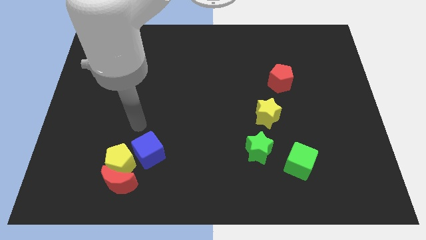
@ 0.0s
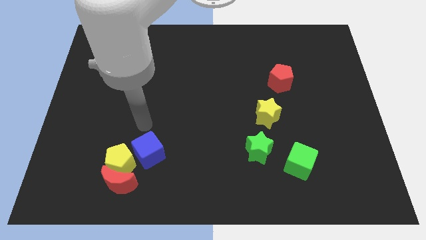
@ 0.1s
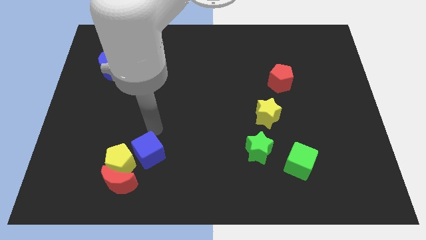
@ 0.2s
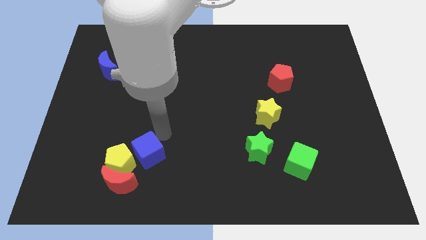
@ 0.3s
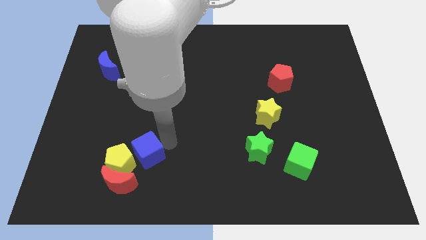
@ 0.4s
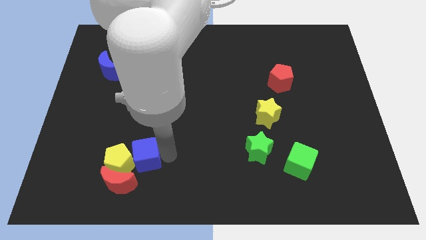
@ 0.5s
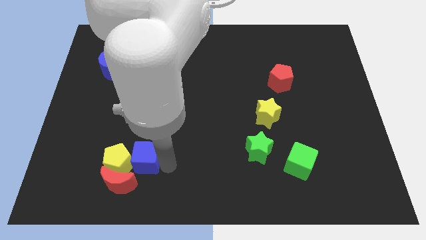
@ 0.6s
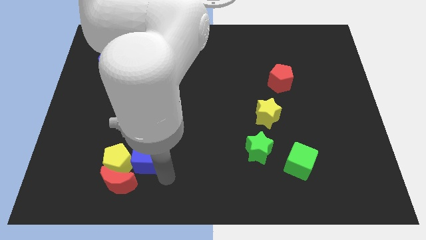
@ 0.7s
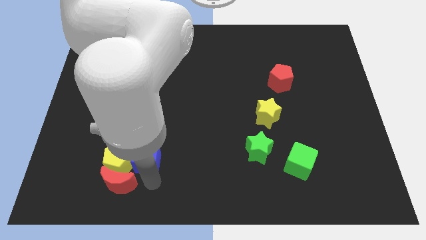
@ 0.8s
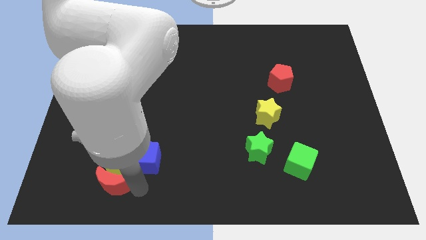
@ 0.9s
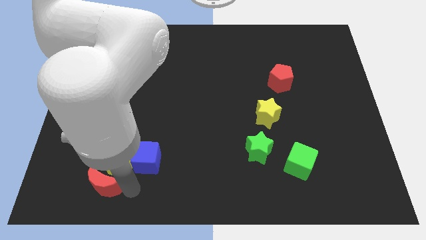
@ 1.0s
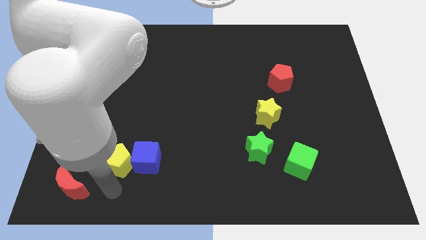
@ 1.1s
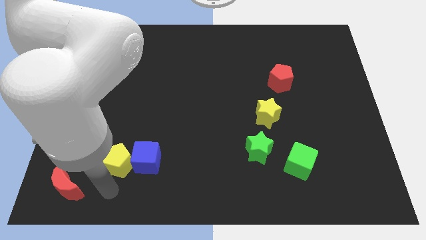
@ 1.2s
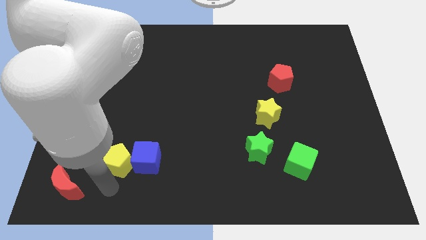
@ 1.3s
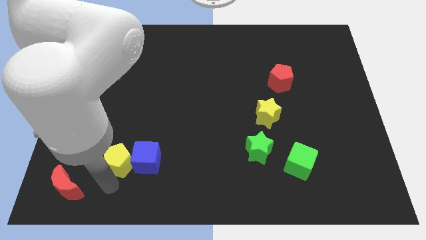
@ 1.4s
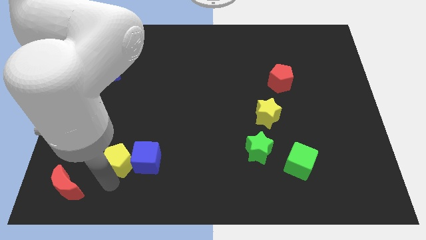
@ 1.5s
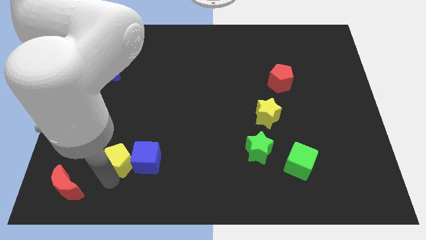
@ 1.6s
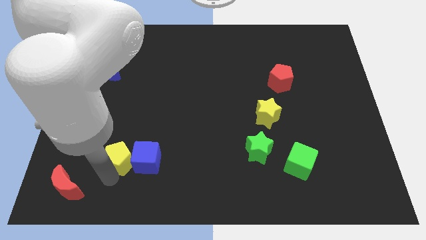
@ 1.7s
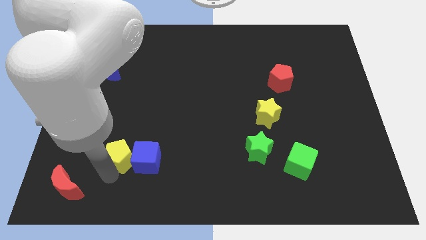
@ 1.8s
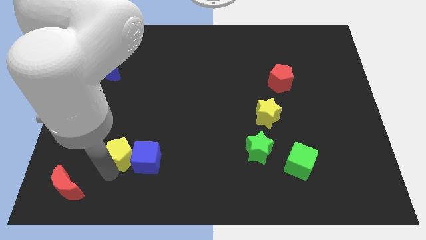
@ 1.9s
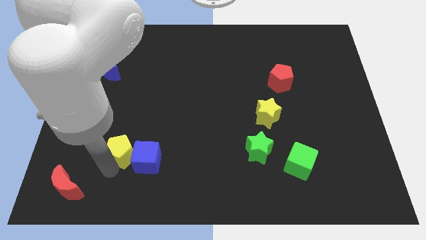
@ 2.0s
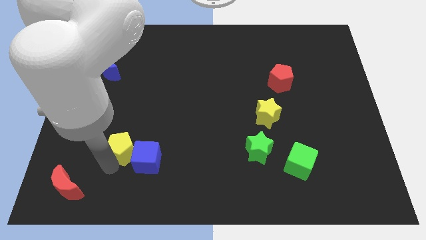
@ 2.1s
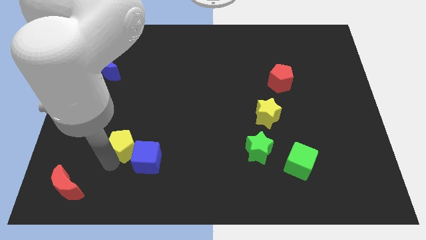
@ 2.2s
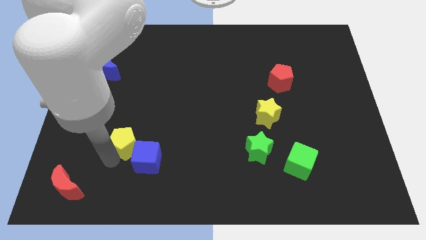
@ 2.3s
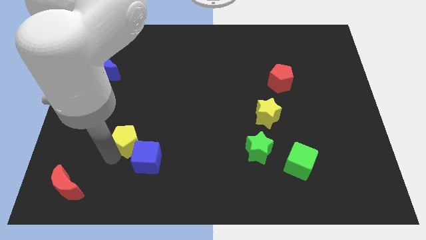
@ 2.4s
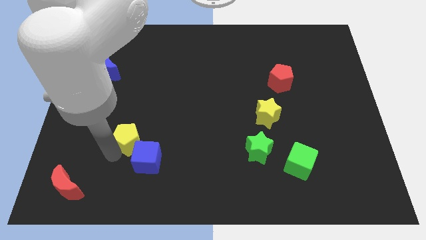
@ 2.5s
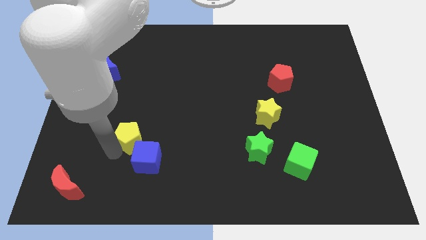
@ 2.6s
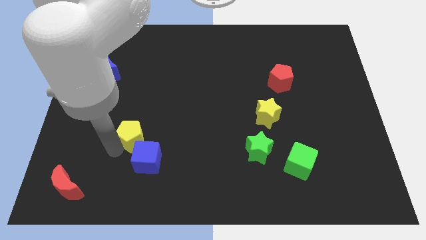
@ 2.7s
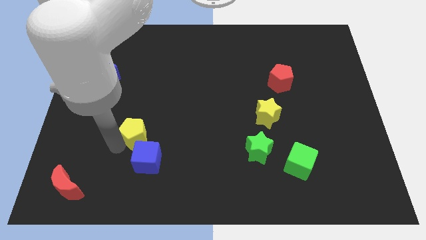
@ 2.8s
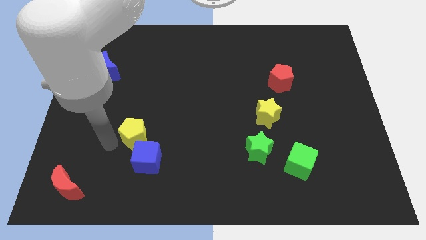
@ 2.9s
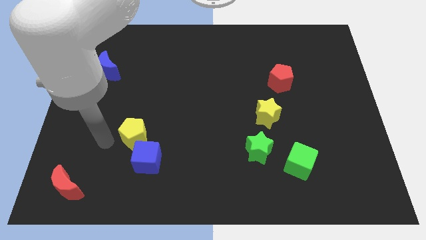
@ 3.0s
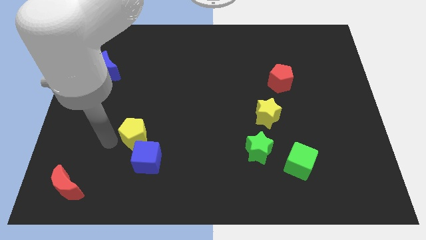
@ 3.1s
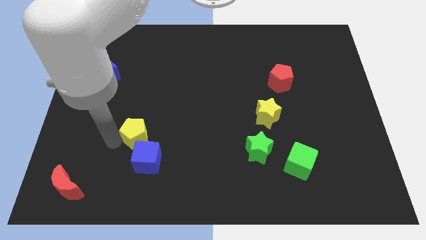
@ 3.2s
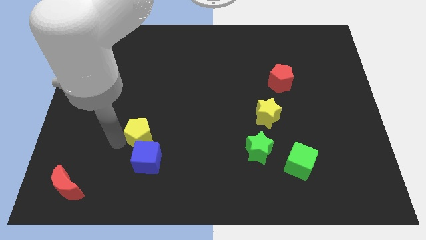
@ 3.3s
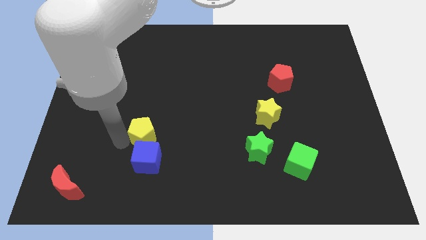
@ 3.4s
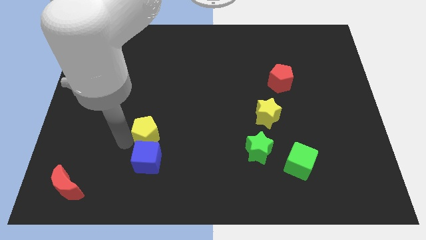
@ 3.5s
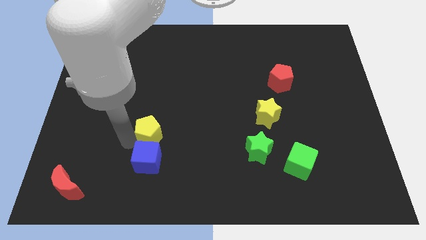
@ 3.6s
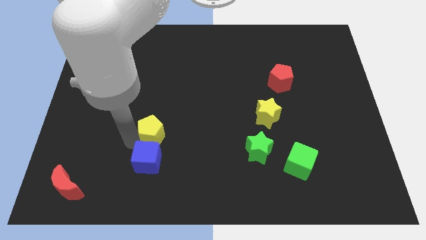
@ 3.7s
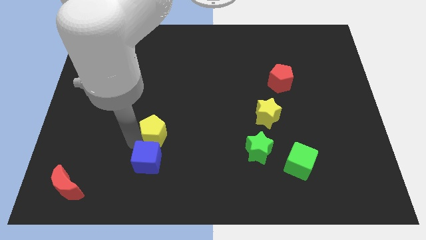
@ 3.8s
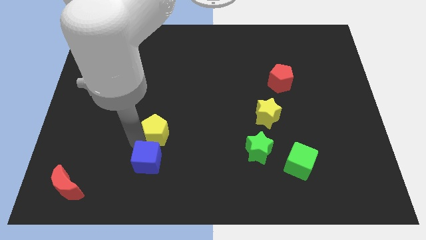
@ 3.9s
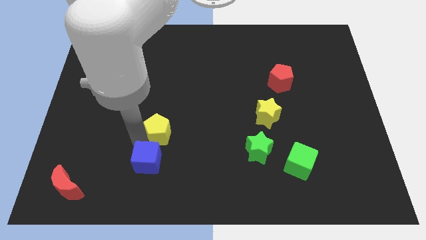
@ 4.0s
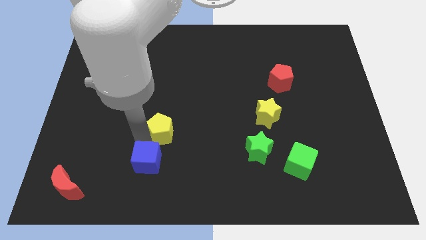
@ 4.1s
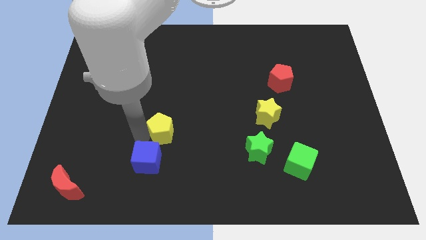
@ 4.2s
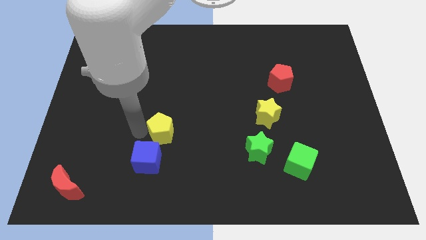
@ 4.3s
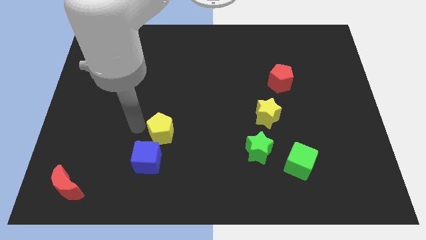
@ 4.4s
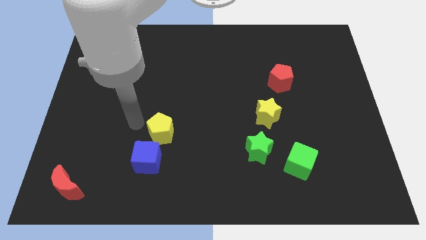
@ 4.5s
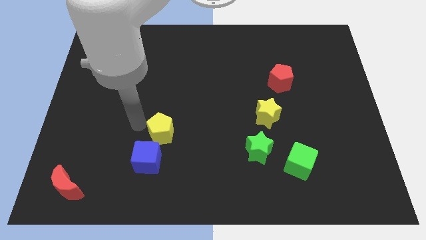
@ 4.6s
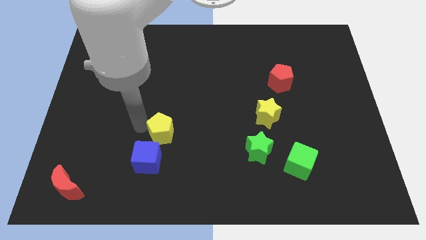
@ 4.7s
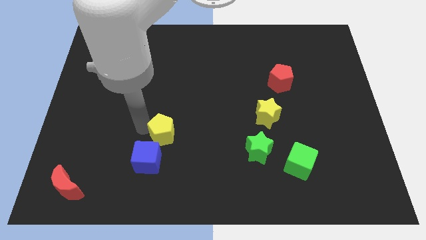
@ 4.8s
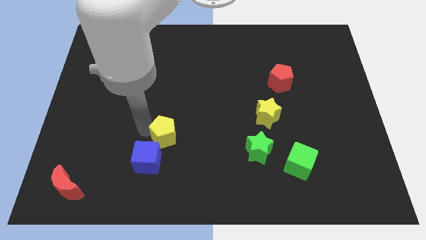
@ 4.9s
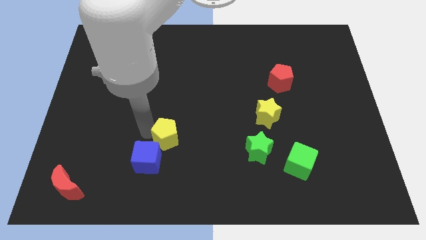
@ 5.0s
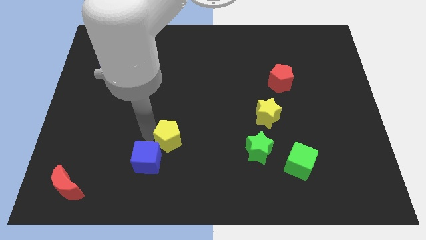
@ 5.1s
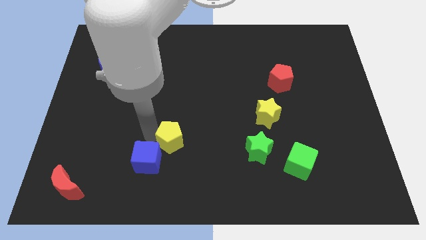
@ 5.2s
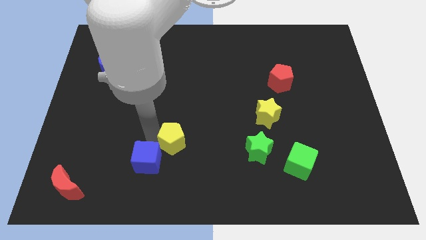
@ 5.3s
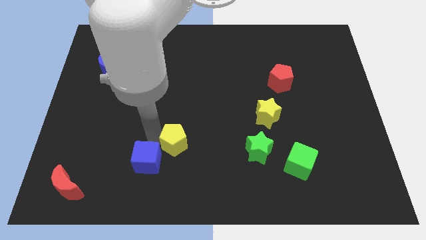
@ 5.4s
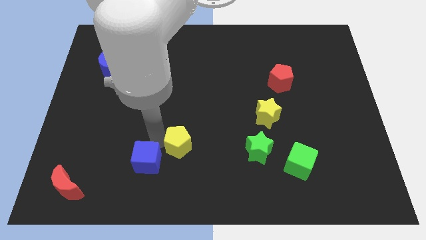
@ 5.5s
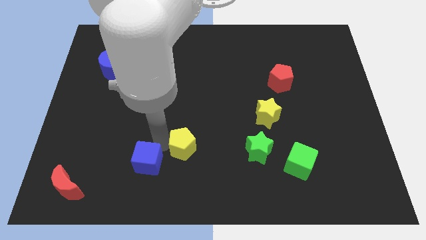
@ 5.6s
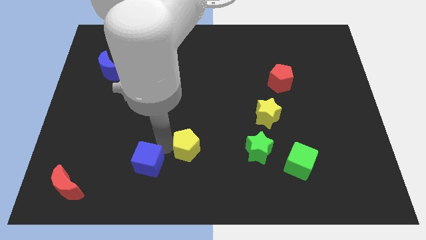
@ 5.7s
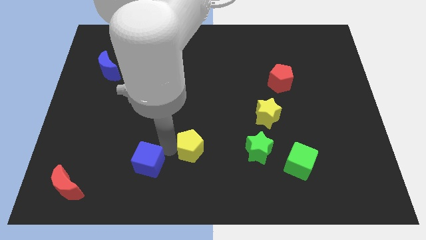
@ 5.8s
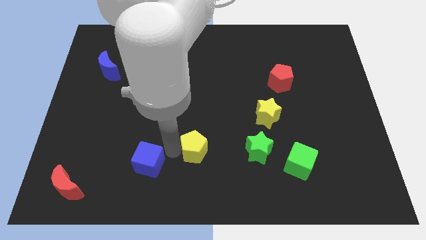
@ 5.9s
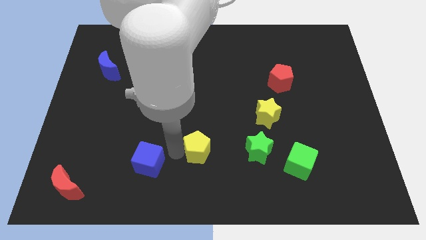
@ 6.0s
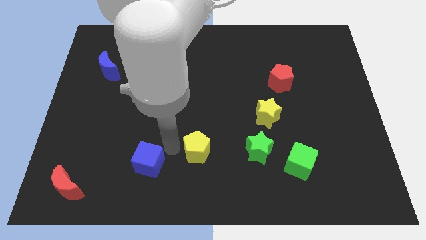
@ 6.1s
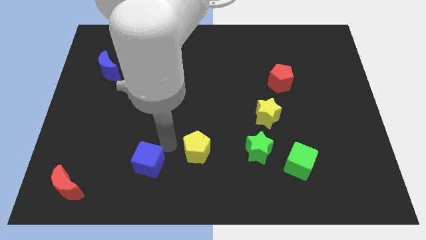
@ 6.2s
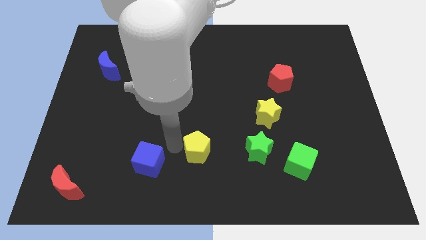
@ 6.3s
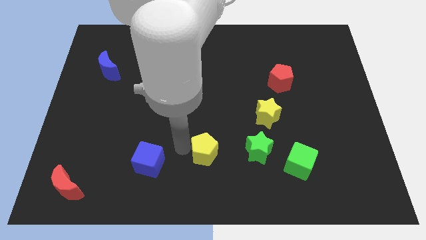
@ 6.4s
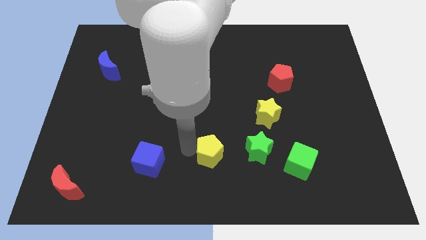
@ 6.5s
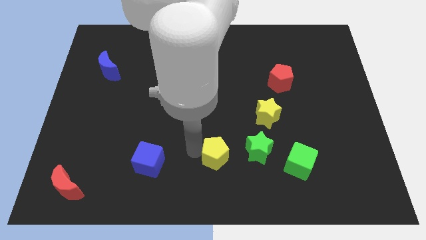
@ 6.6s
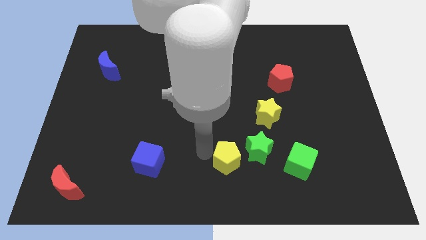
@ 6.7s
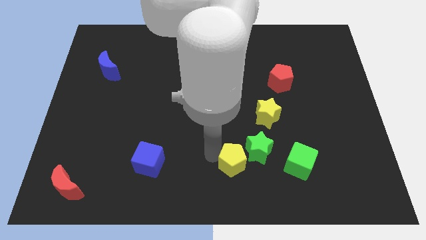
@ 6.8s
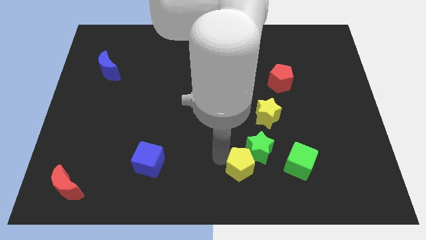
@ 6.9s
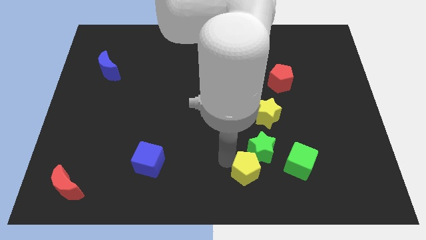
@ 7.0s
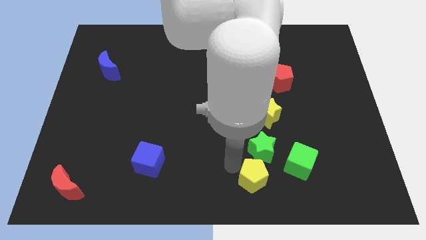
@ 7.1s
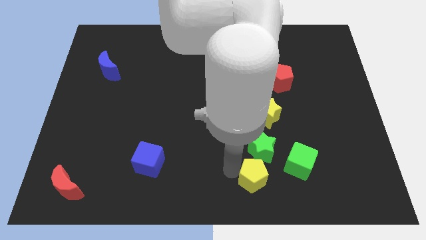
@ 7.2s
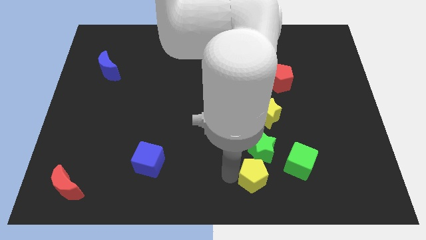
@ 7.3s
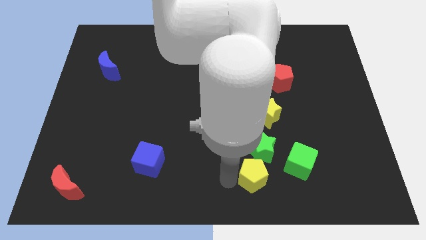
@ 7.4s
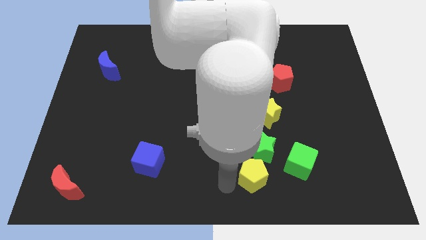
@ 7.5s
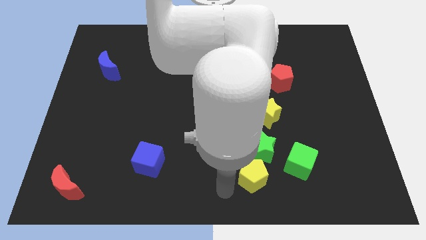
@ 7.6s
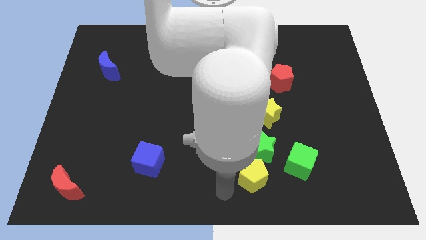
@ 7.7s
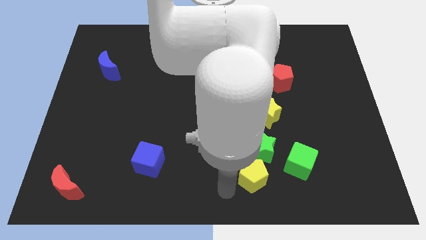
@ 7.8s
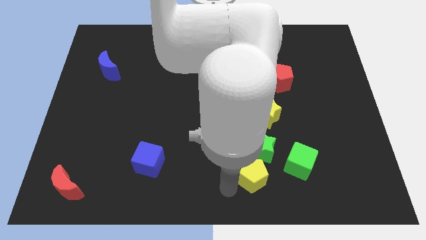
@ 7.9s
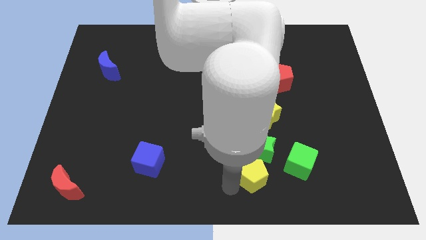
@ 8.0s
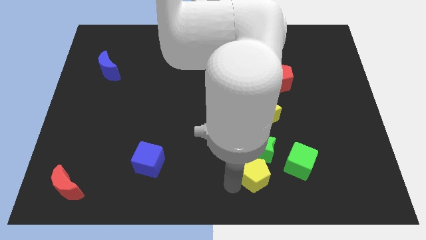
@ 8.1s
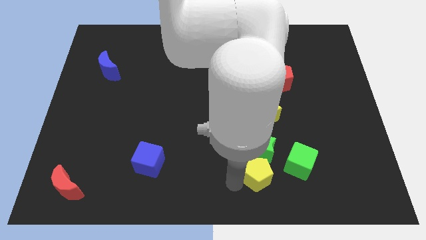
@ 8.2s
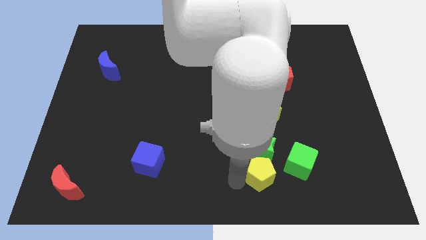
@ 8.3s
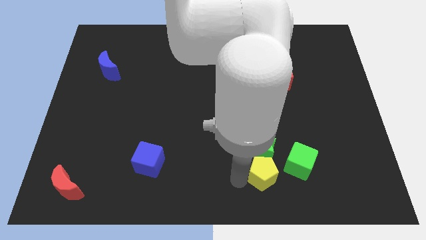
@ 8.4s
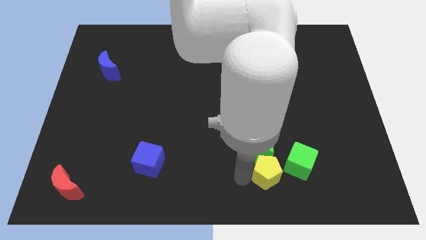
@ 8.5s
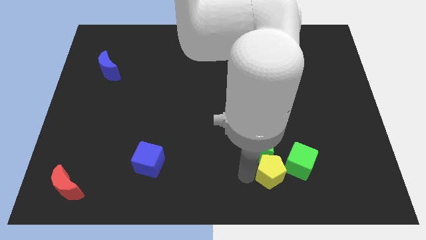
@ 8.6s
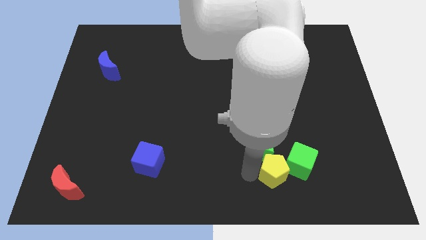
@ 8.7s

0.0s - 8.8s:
move the yellow pentagon close to the green cube
